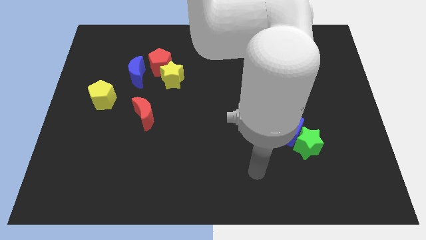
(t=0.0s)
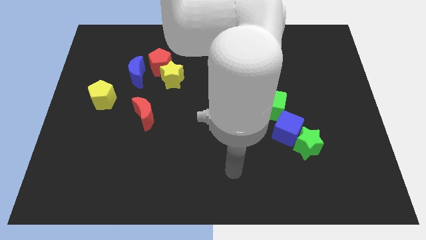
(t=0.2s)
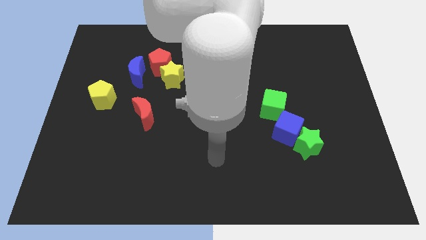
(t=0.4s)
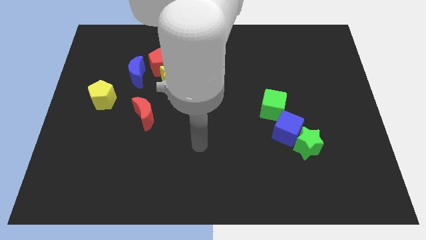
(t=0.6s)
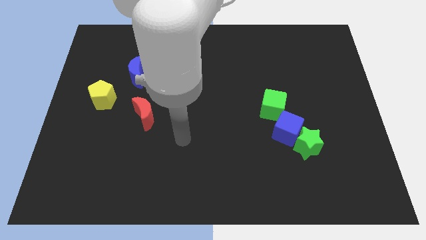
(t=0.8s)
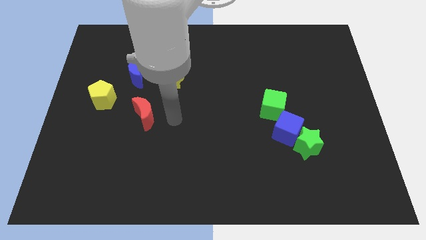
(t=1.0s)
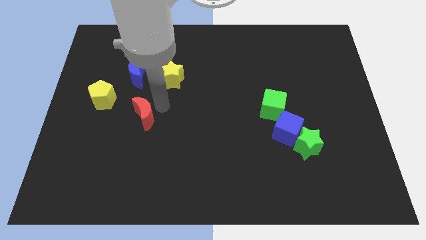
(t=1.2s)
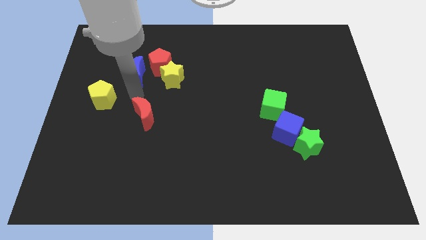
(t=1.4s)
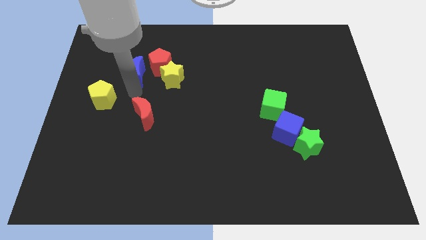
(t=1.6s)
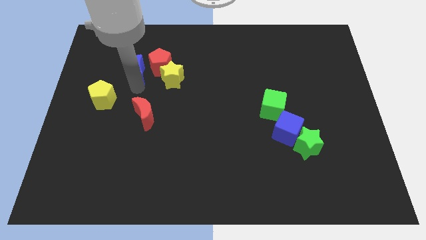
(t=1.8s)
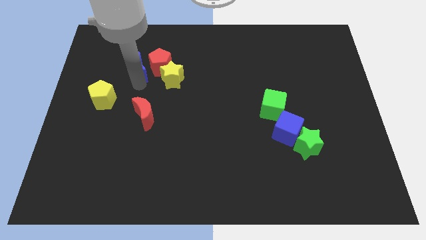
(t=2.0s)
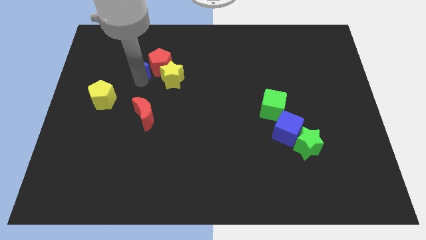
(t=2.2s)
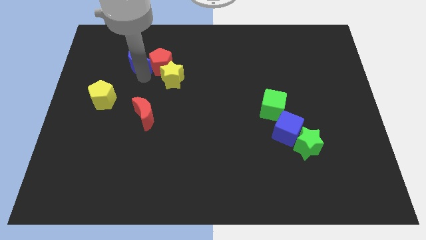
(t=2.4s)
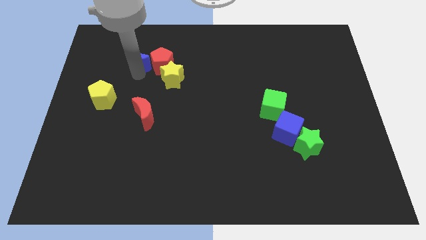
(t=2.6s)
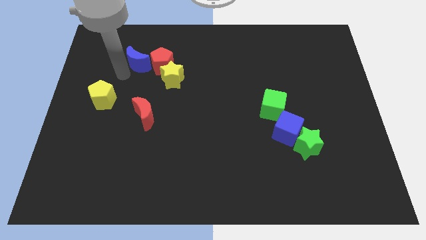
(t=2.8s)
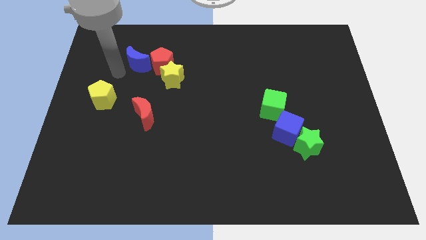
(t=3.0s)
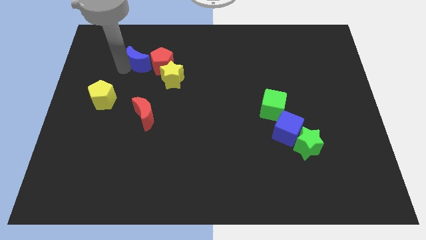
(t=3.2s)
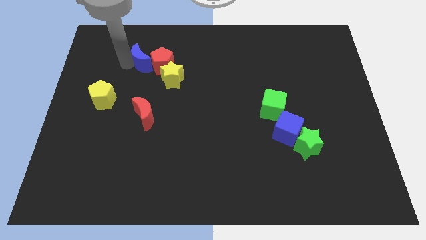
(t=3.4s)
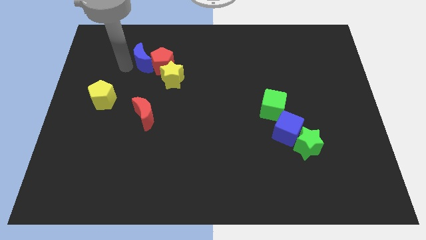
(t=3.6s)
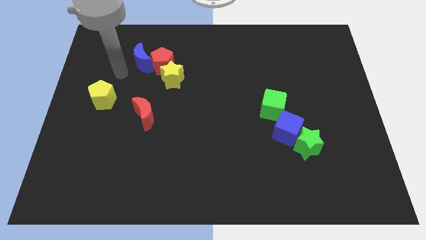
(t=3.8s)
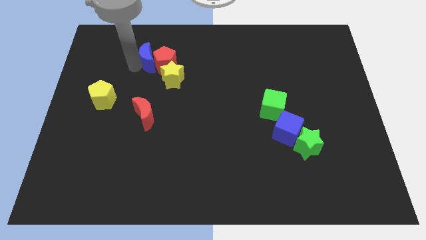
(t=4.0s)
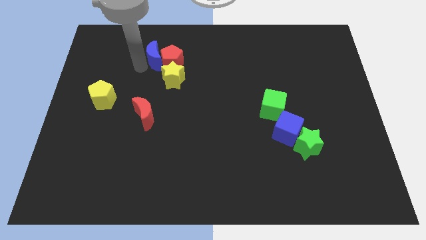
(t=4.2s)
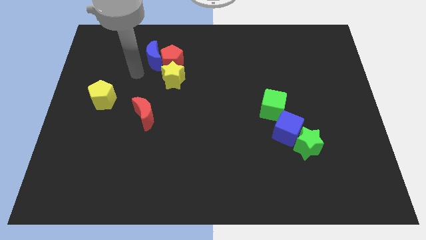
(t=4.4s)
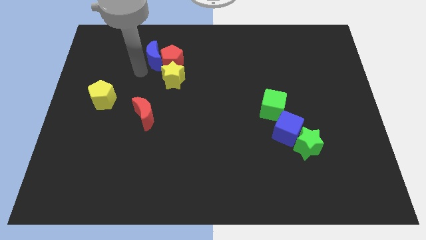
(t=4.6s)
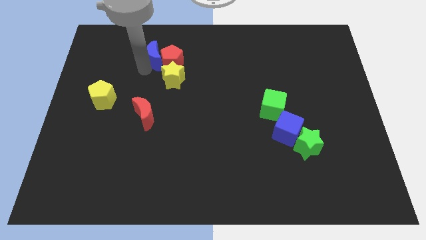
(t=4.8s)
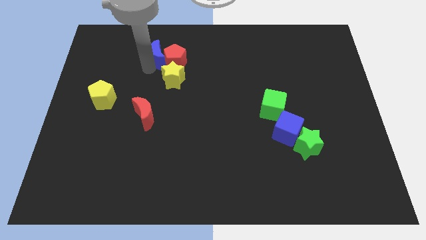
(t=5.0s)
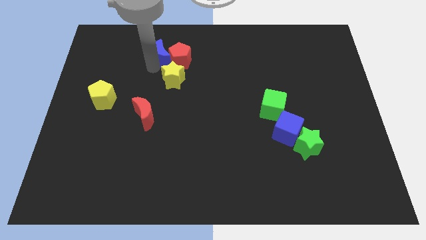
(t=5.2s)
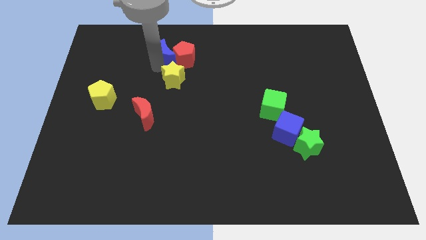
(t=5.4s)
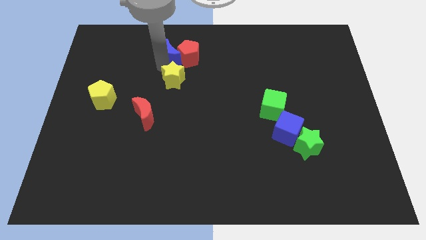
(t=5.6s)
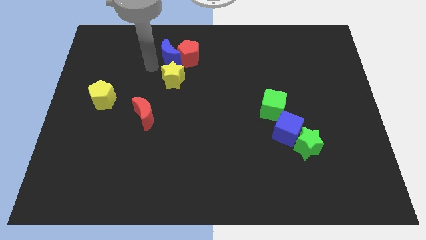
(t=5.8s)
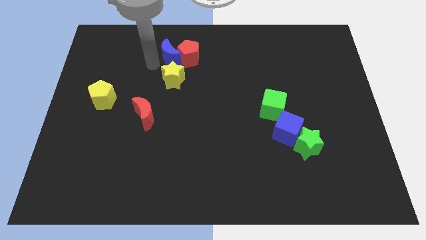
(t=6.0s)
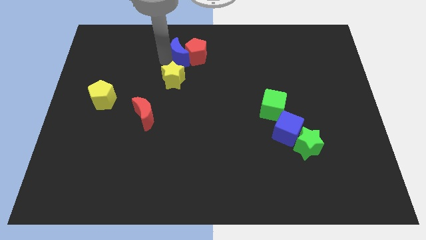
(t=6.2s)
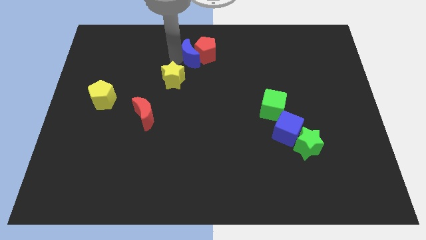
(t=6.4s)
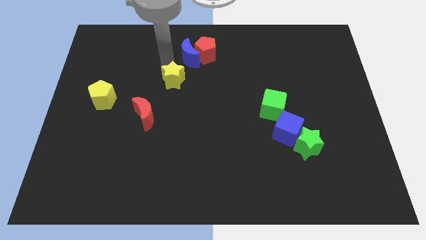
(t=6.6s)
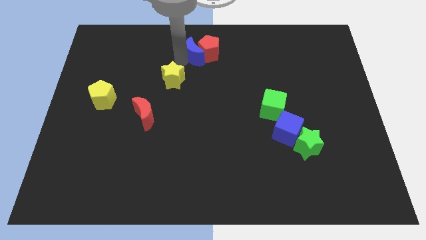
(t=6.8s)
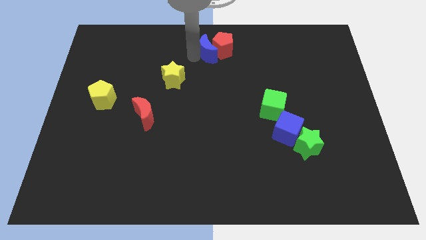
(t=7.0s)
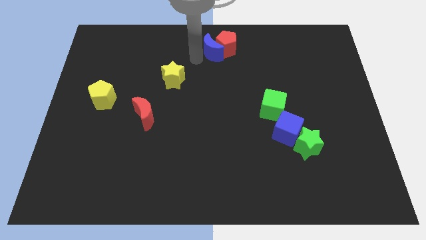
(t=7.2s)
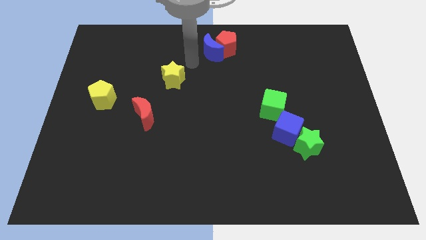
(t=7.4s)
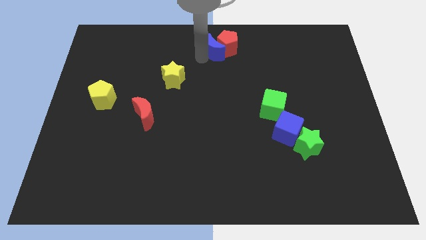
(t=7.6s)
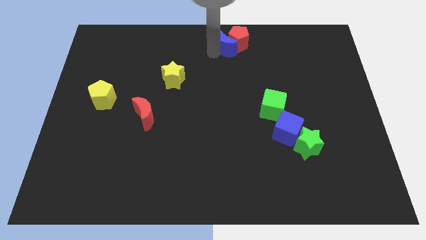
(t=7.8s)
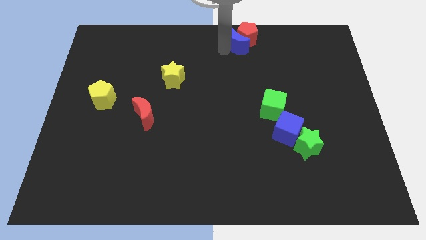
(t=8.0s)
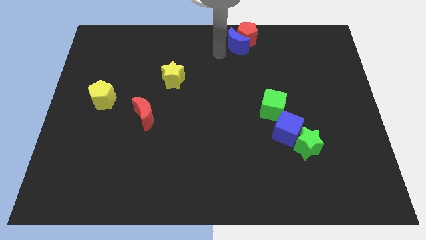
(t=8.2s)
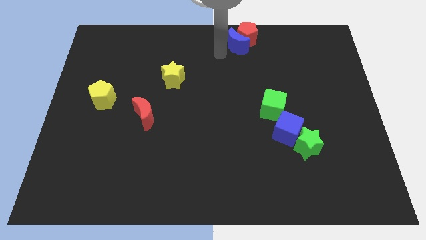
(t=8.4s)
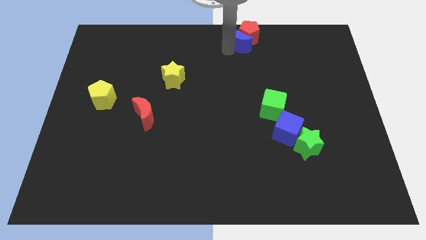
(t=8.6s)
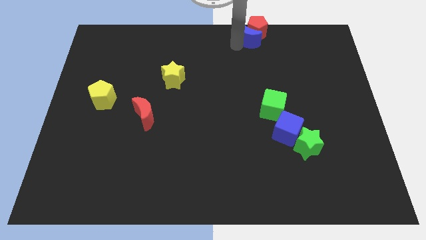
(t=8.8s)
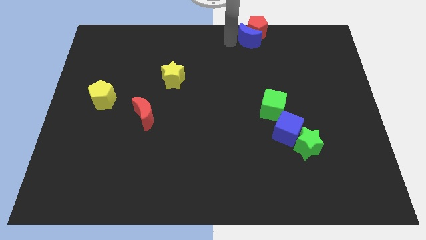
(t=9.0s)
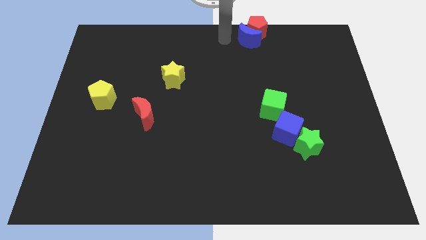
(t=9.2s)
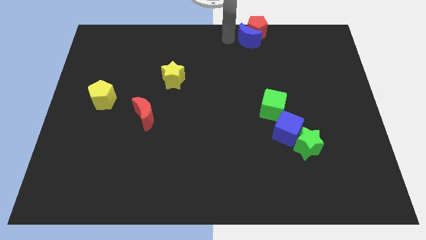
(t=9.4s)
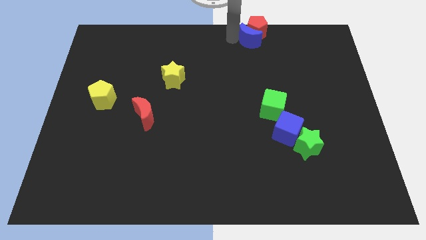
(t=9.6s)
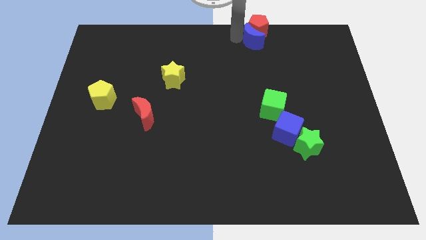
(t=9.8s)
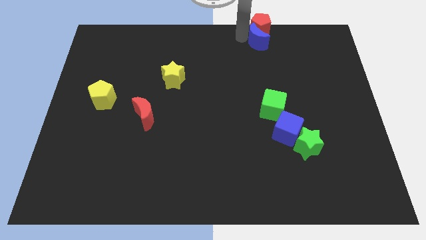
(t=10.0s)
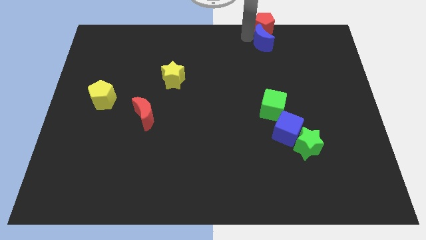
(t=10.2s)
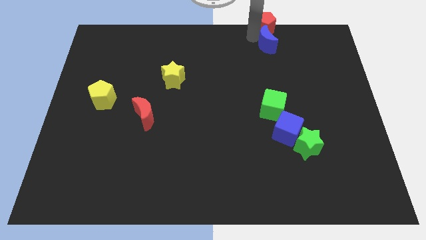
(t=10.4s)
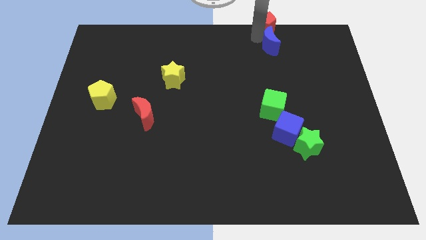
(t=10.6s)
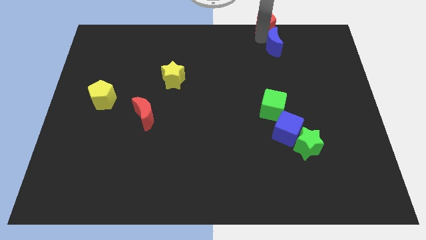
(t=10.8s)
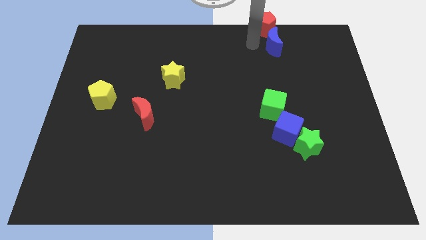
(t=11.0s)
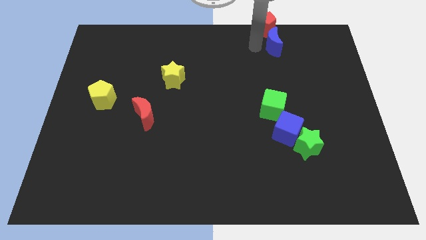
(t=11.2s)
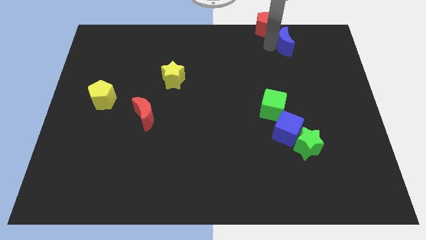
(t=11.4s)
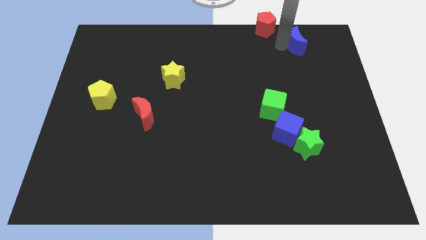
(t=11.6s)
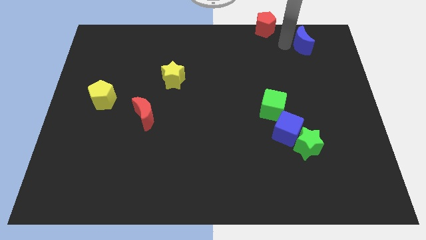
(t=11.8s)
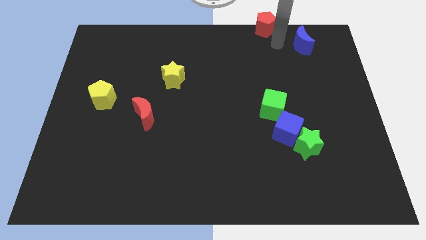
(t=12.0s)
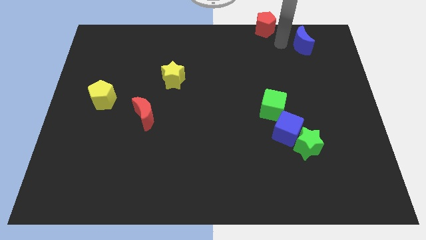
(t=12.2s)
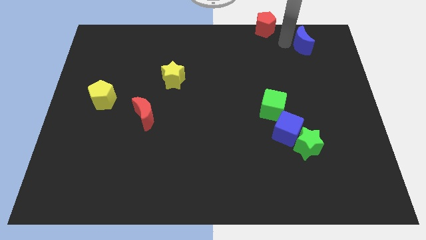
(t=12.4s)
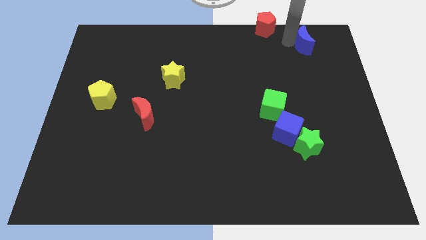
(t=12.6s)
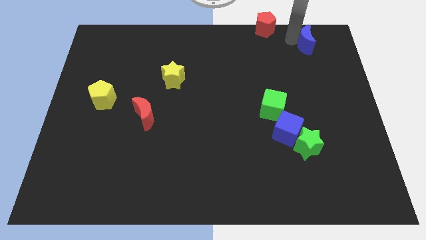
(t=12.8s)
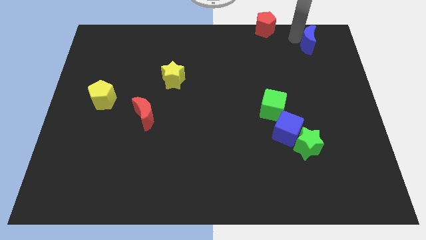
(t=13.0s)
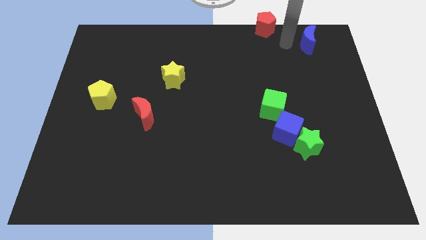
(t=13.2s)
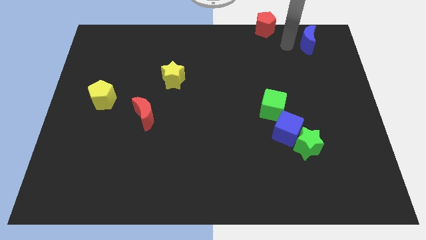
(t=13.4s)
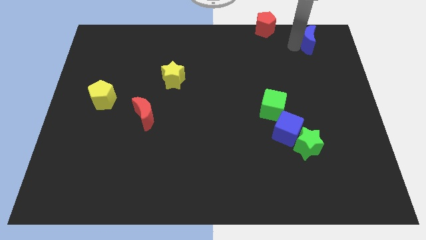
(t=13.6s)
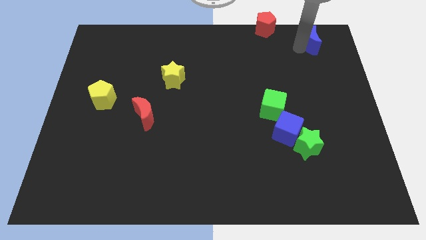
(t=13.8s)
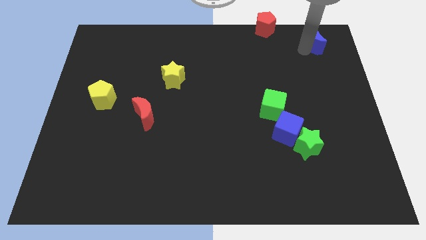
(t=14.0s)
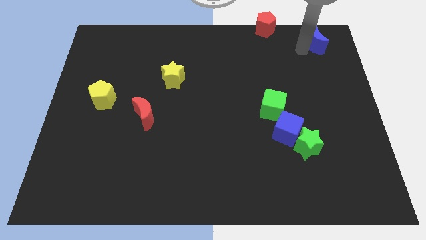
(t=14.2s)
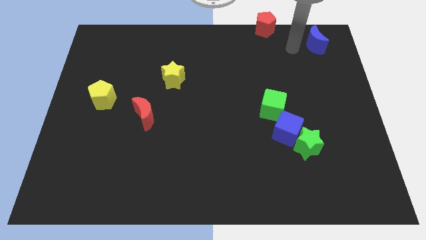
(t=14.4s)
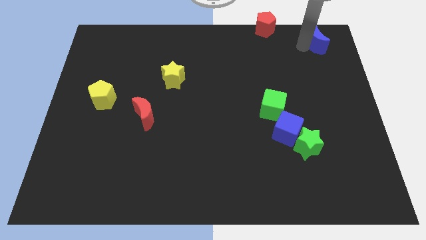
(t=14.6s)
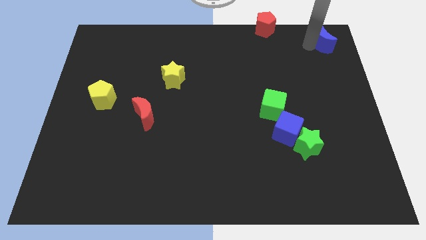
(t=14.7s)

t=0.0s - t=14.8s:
slide the blue moon to the top right
